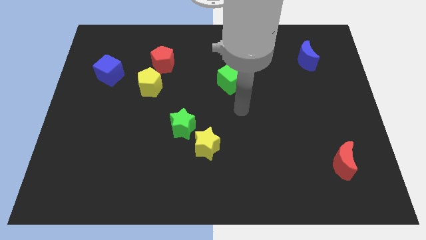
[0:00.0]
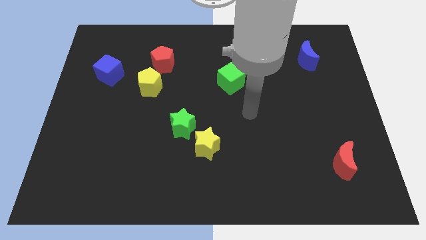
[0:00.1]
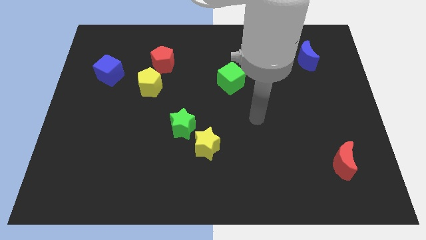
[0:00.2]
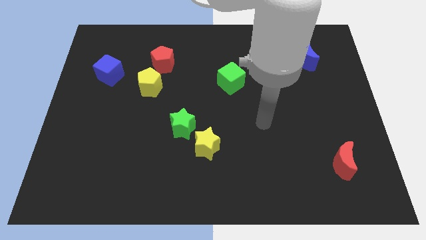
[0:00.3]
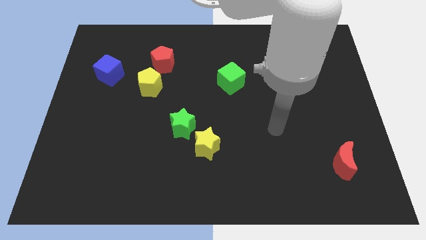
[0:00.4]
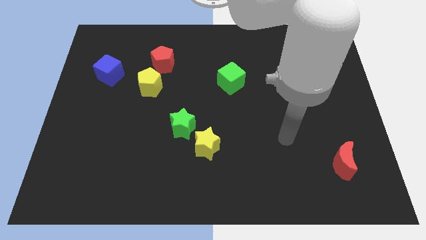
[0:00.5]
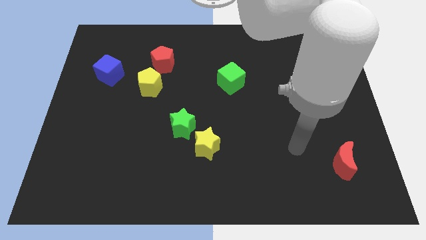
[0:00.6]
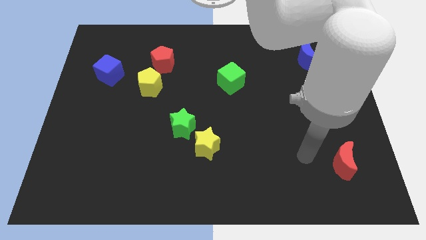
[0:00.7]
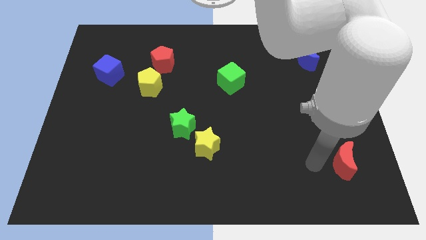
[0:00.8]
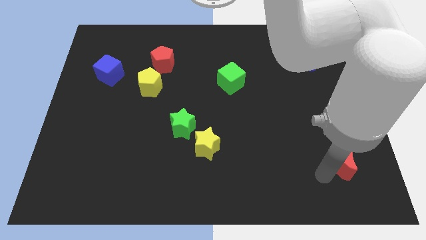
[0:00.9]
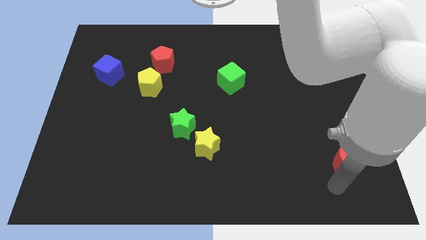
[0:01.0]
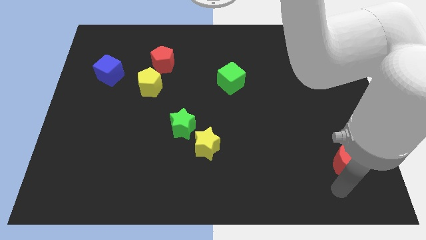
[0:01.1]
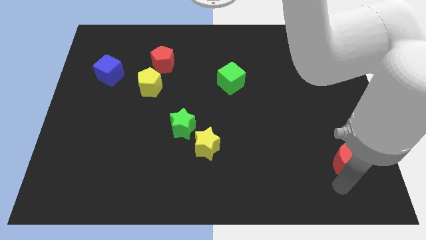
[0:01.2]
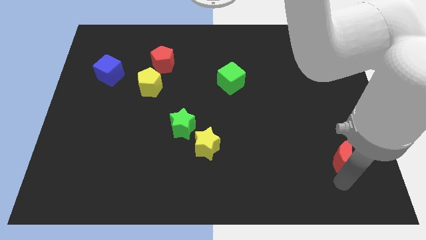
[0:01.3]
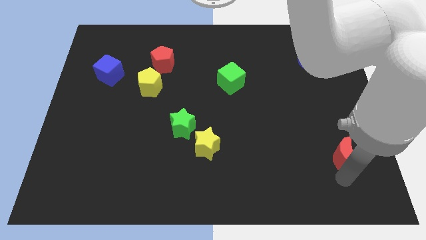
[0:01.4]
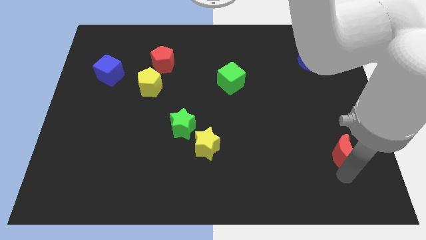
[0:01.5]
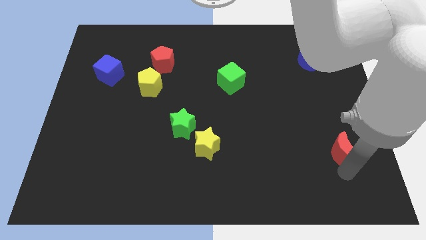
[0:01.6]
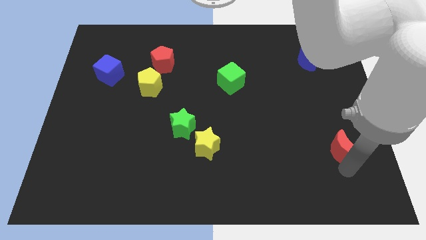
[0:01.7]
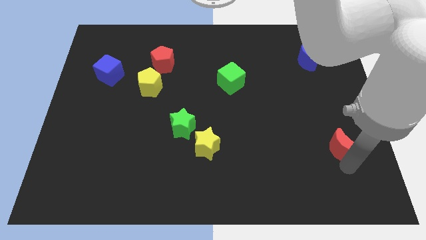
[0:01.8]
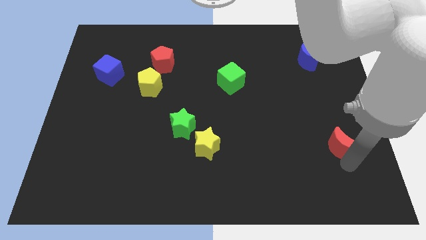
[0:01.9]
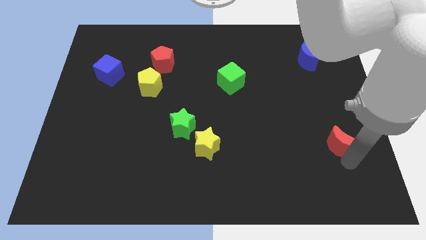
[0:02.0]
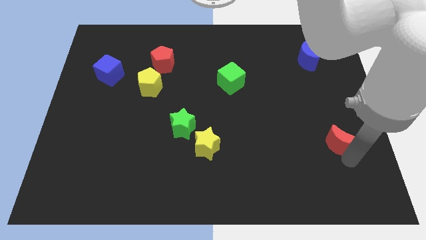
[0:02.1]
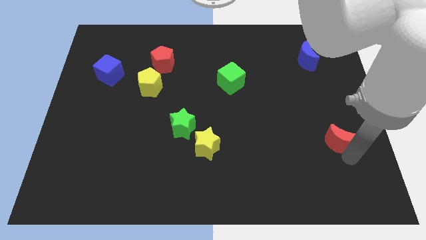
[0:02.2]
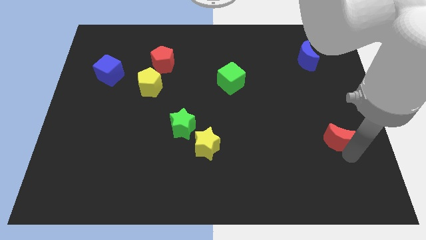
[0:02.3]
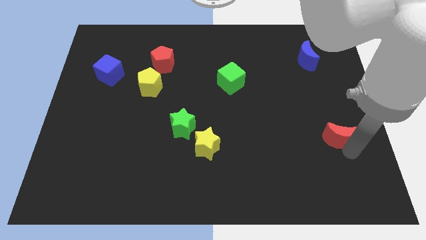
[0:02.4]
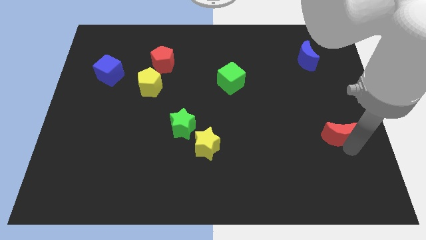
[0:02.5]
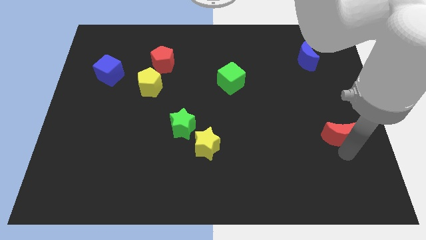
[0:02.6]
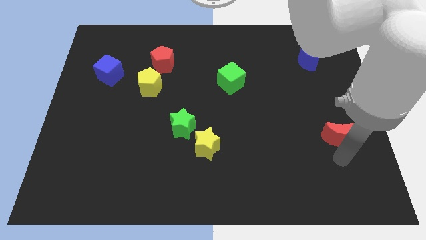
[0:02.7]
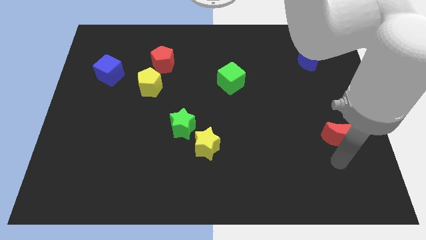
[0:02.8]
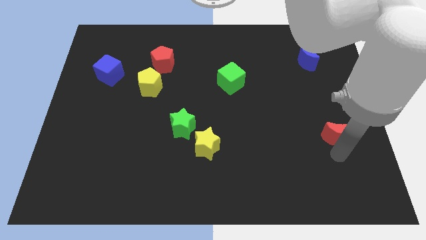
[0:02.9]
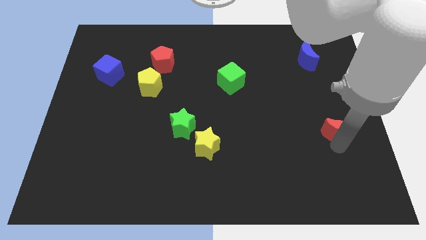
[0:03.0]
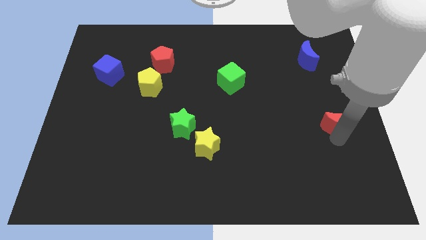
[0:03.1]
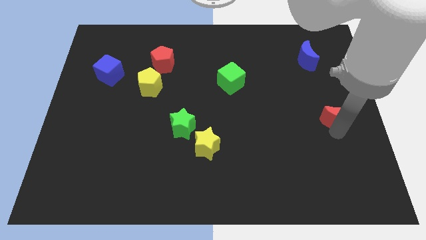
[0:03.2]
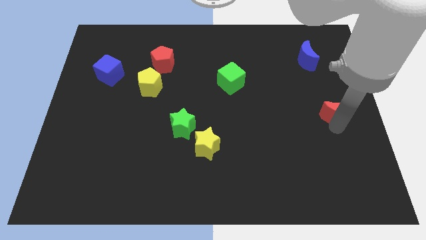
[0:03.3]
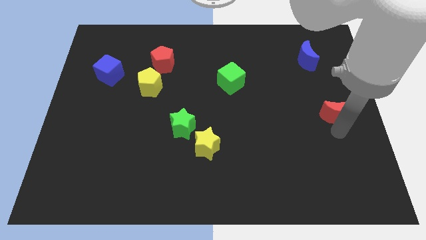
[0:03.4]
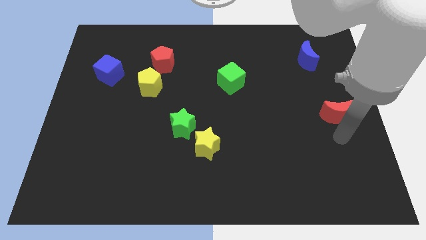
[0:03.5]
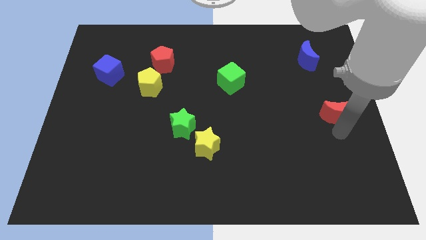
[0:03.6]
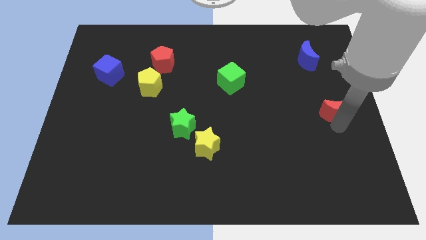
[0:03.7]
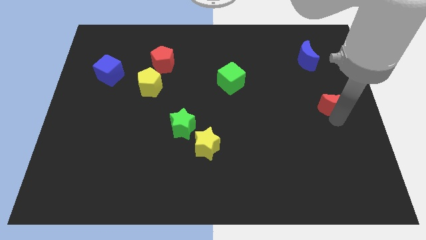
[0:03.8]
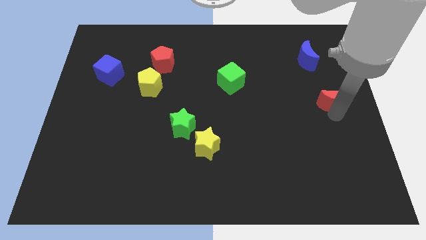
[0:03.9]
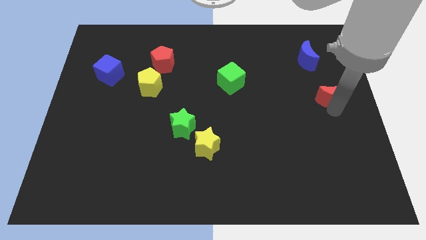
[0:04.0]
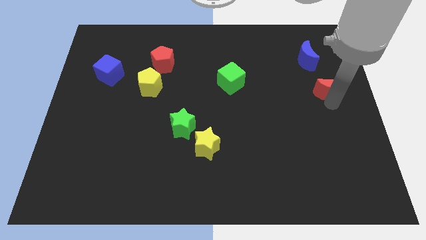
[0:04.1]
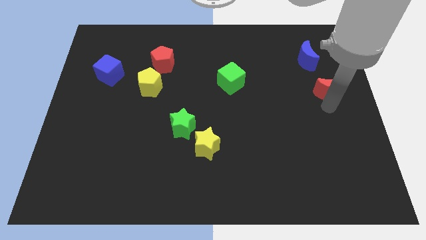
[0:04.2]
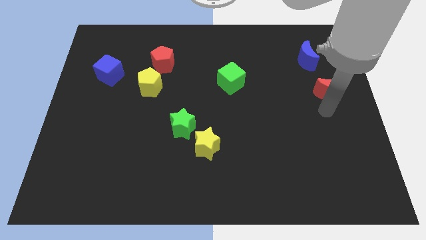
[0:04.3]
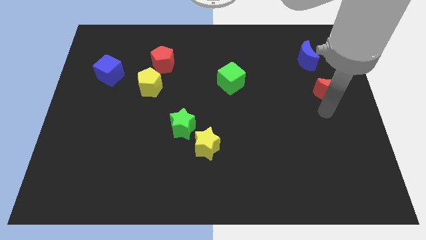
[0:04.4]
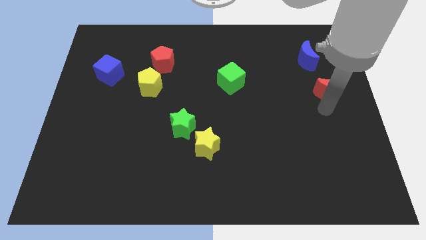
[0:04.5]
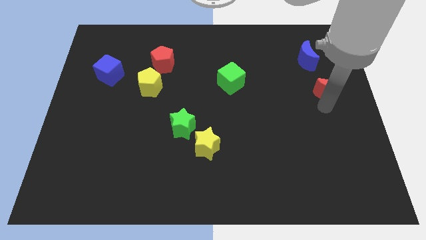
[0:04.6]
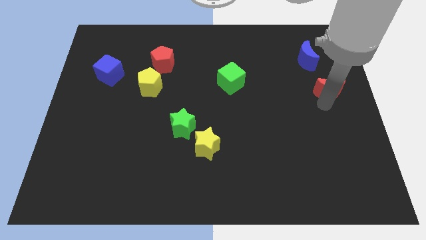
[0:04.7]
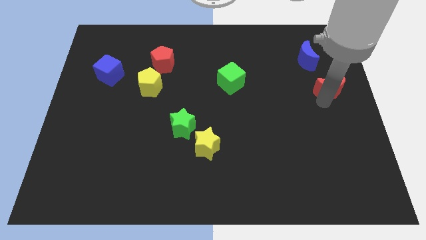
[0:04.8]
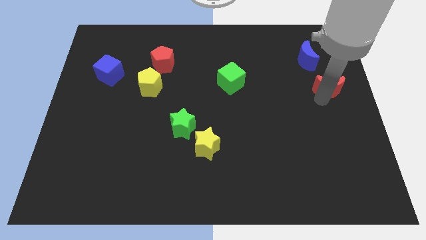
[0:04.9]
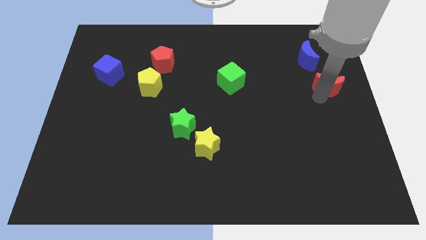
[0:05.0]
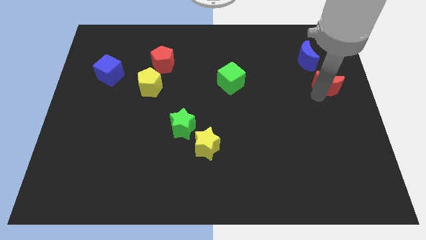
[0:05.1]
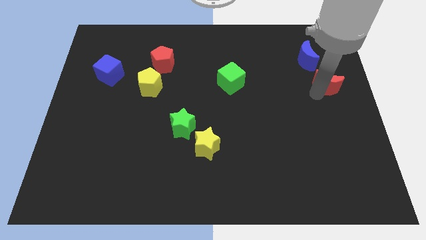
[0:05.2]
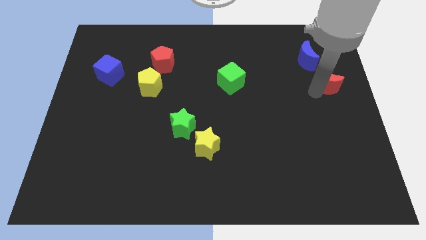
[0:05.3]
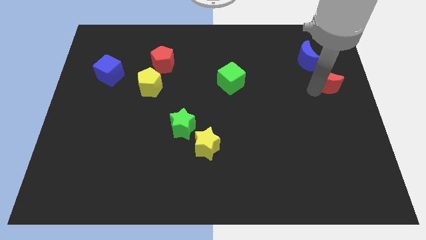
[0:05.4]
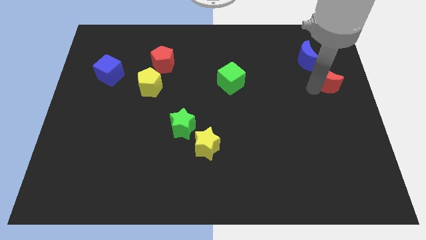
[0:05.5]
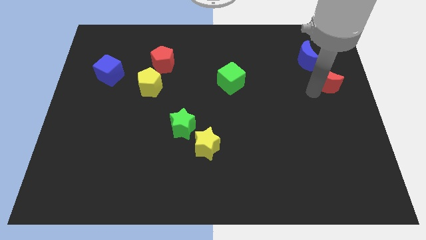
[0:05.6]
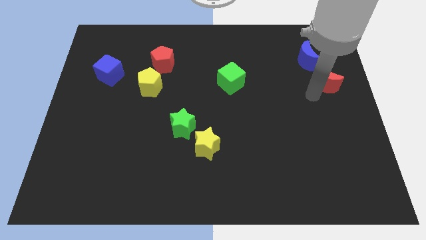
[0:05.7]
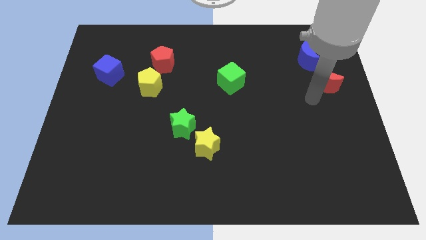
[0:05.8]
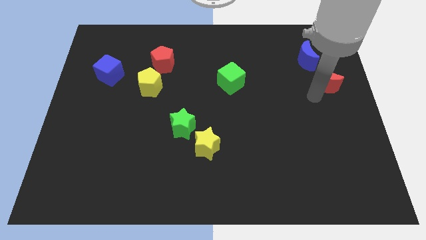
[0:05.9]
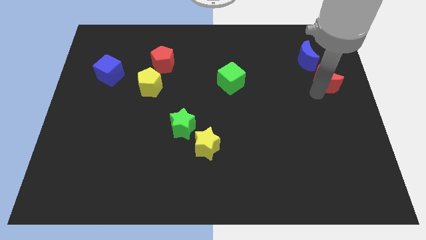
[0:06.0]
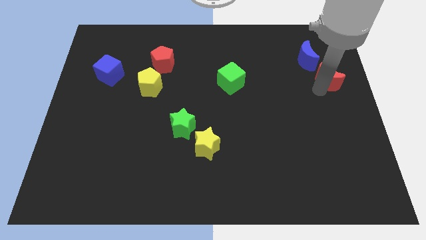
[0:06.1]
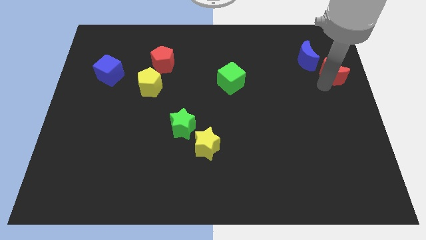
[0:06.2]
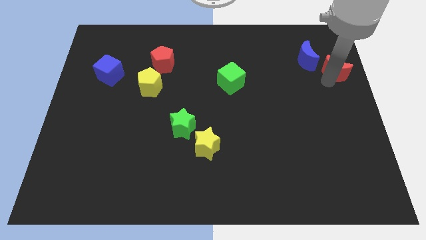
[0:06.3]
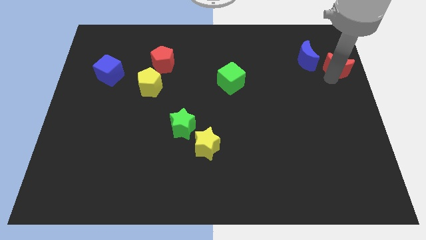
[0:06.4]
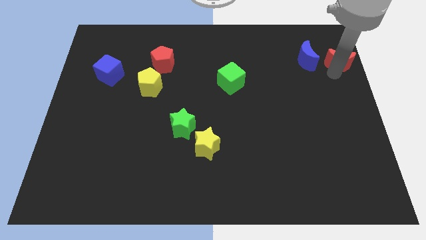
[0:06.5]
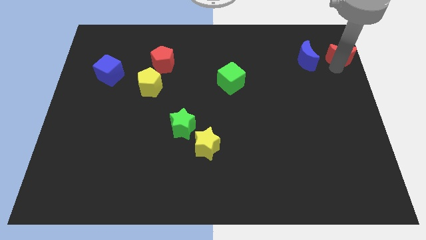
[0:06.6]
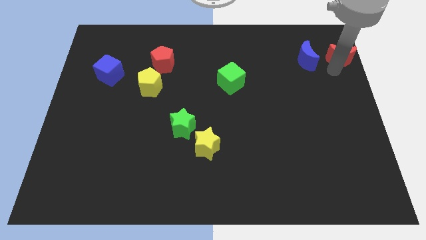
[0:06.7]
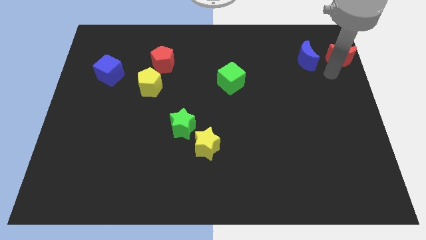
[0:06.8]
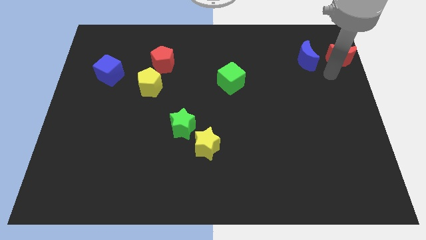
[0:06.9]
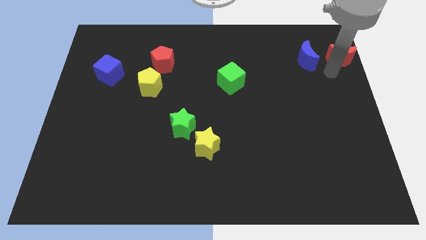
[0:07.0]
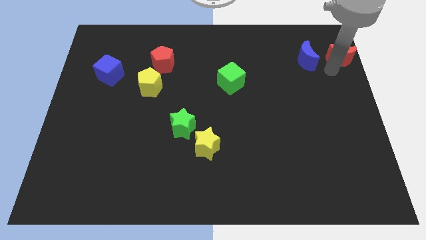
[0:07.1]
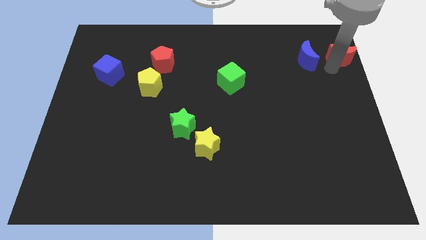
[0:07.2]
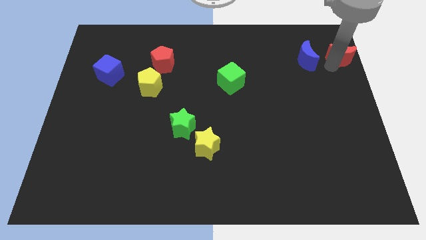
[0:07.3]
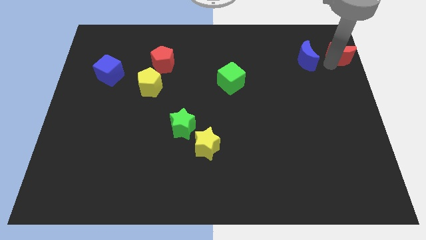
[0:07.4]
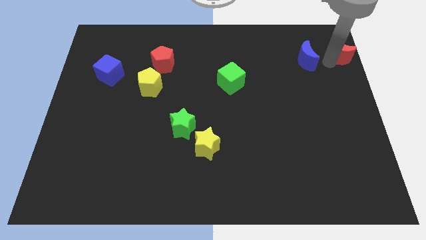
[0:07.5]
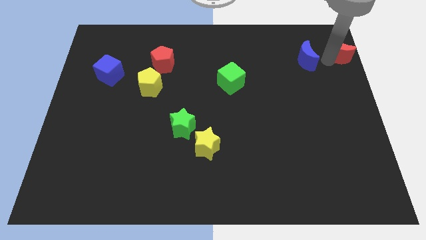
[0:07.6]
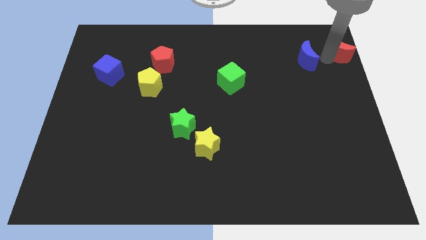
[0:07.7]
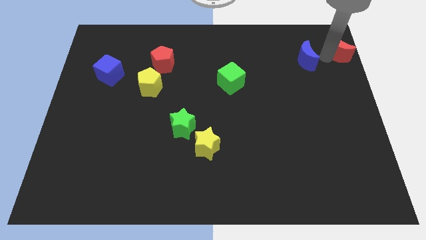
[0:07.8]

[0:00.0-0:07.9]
slide the red moon to the top right corner
